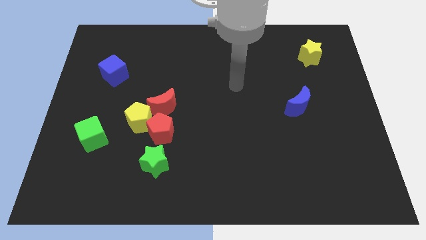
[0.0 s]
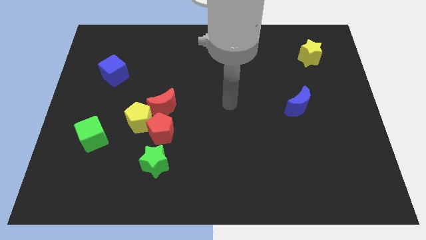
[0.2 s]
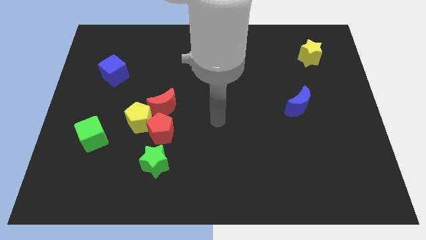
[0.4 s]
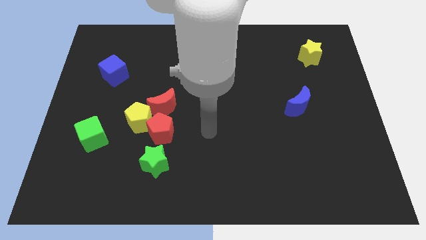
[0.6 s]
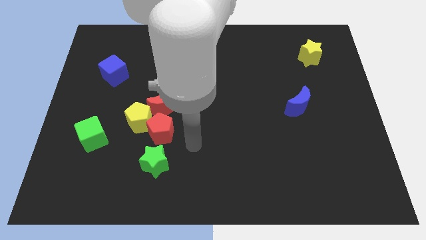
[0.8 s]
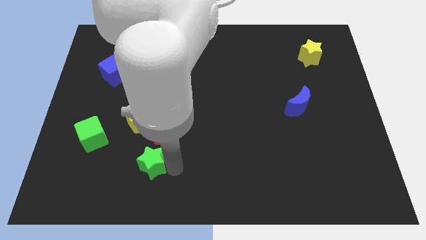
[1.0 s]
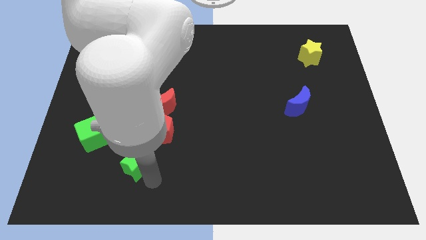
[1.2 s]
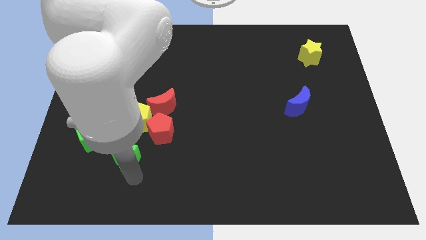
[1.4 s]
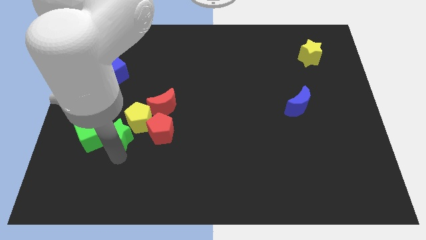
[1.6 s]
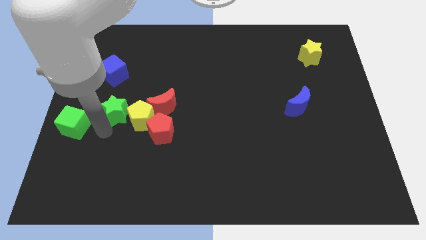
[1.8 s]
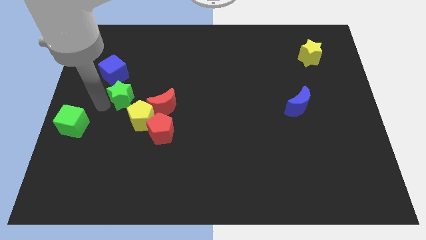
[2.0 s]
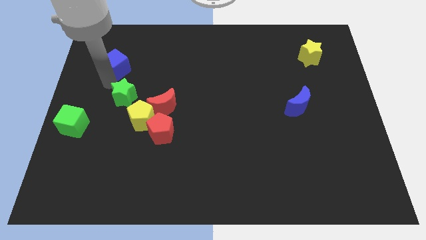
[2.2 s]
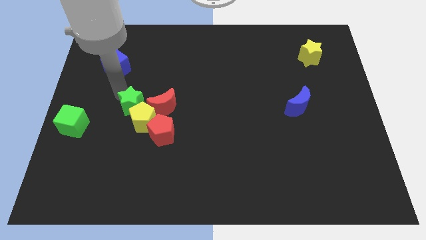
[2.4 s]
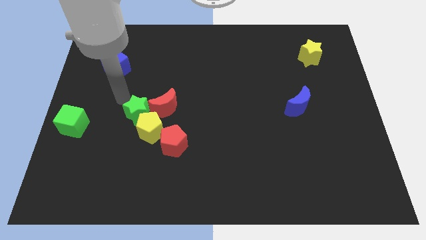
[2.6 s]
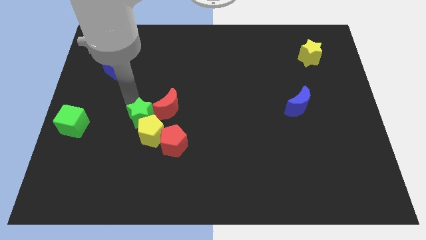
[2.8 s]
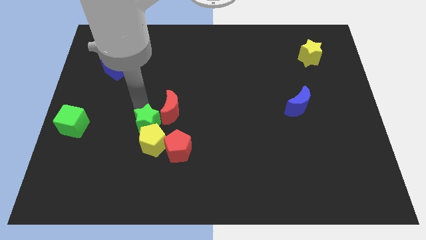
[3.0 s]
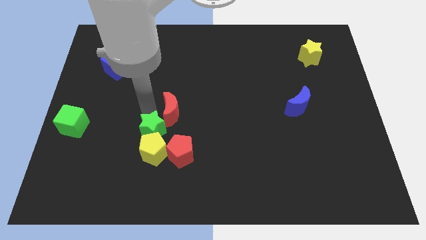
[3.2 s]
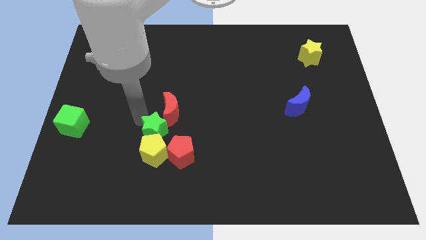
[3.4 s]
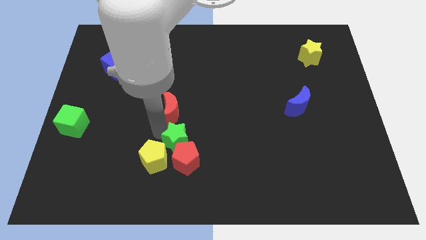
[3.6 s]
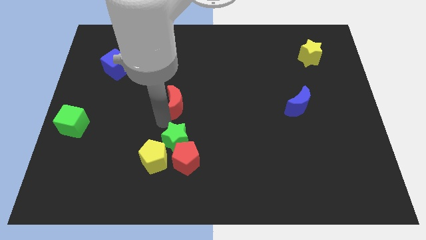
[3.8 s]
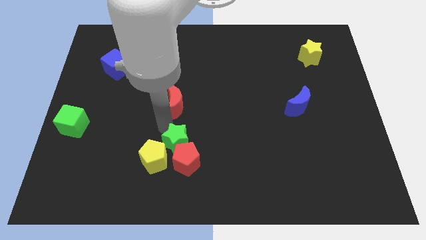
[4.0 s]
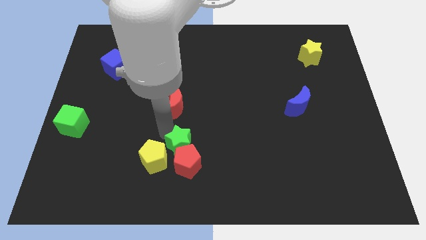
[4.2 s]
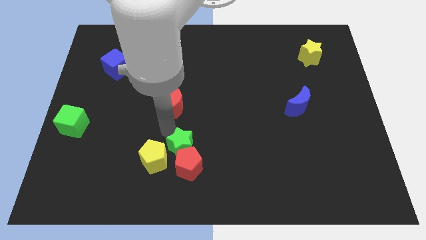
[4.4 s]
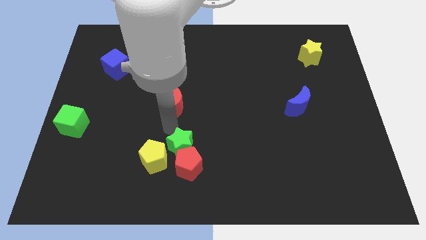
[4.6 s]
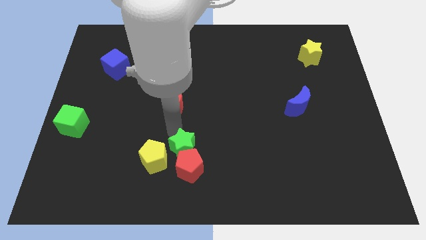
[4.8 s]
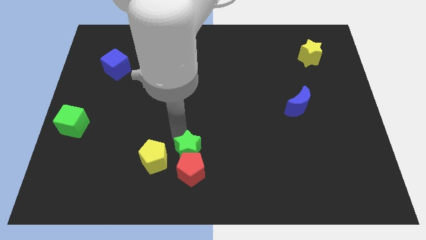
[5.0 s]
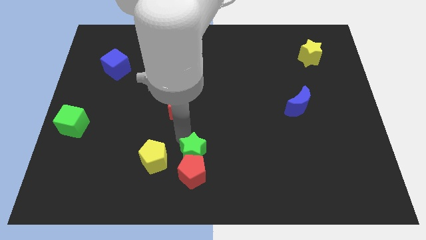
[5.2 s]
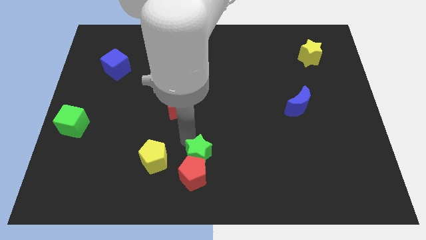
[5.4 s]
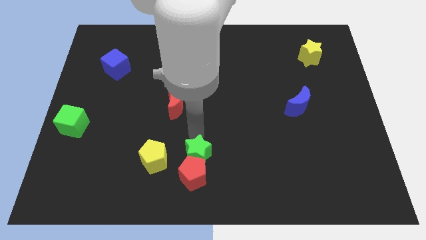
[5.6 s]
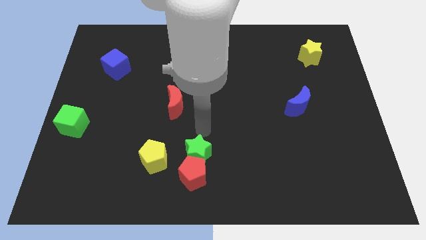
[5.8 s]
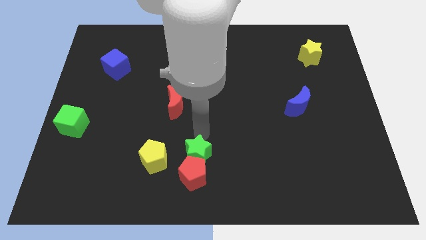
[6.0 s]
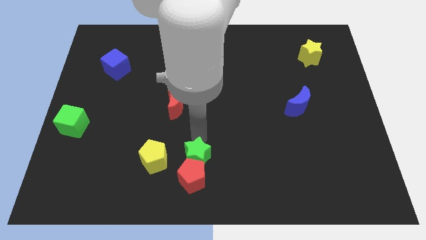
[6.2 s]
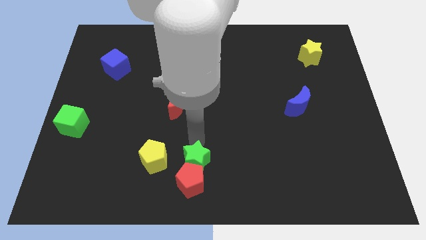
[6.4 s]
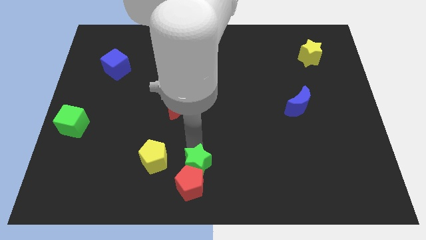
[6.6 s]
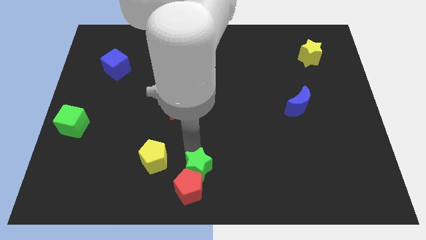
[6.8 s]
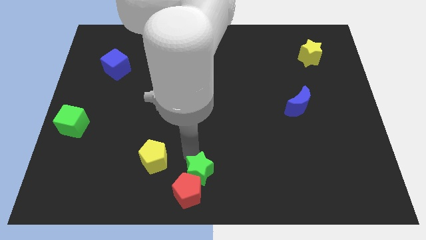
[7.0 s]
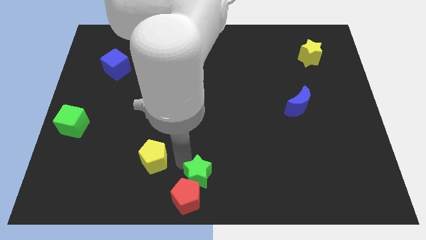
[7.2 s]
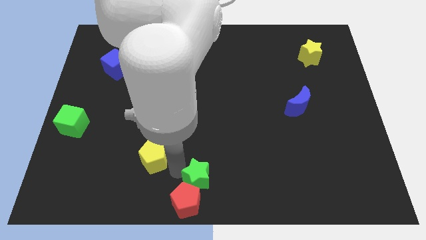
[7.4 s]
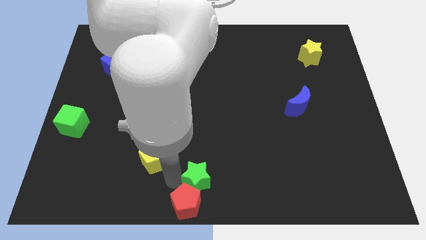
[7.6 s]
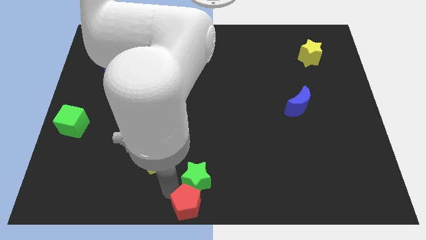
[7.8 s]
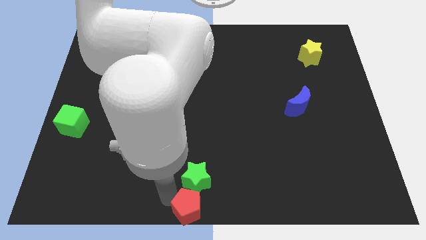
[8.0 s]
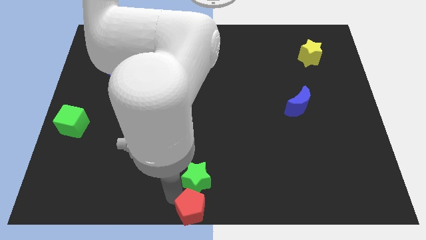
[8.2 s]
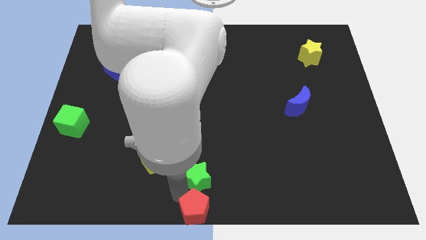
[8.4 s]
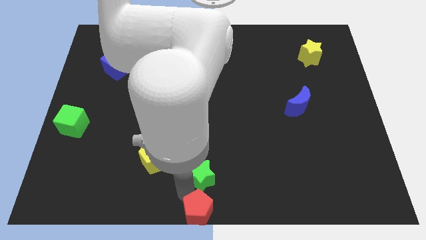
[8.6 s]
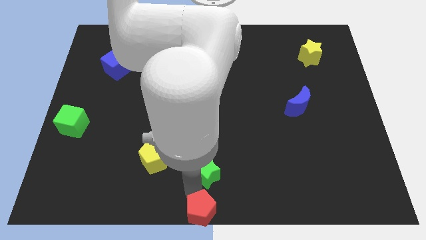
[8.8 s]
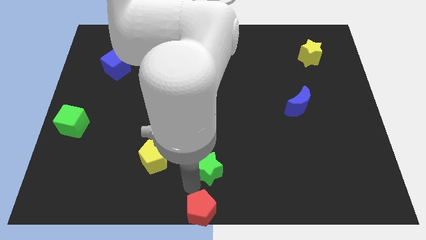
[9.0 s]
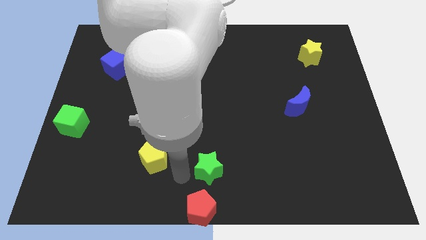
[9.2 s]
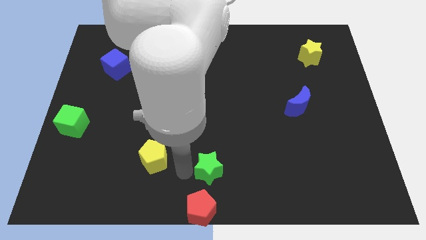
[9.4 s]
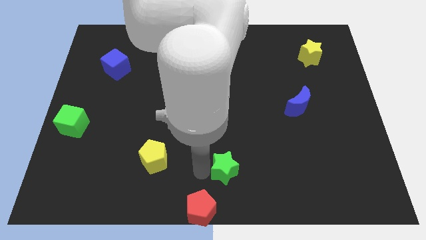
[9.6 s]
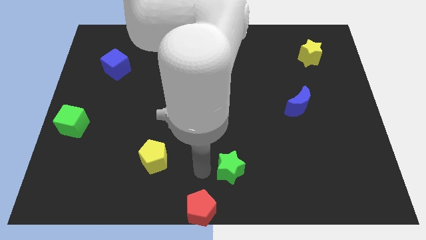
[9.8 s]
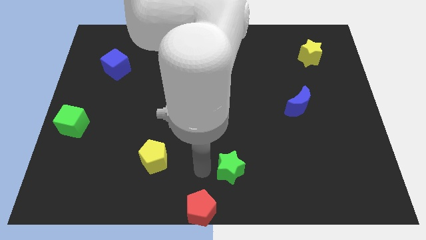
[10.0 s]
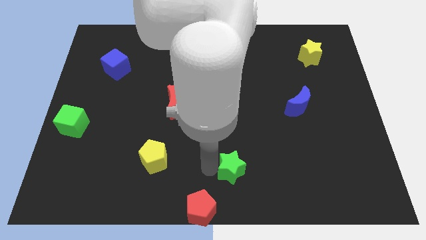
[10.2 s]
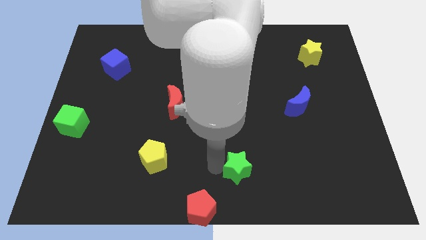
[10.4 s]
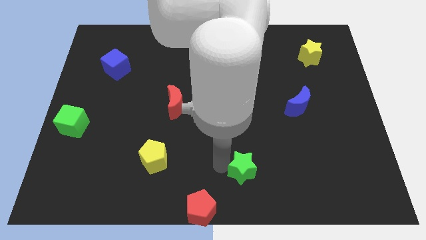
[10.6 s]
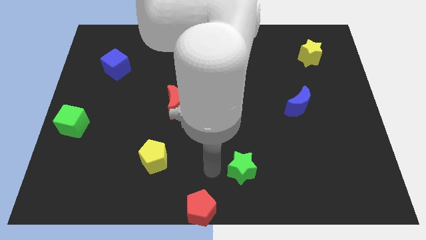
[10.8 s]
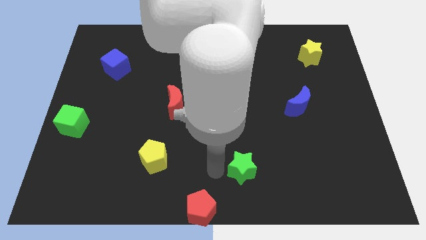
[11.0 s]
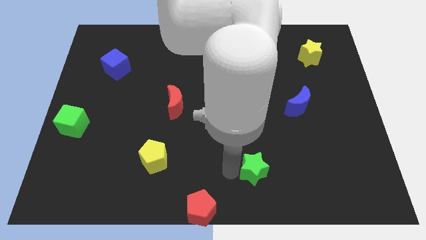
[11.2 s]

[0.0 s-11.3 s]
push the green star to the right

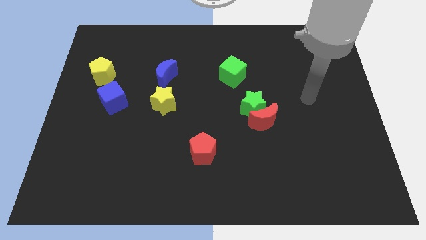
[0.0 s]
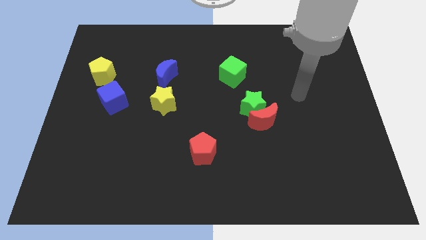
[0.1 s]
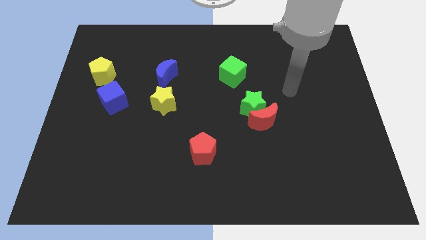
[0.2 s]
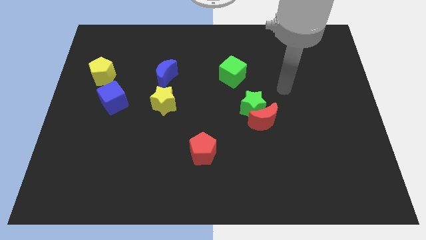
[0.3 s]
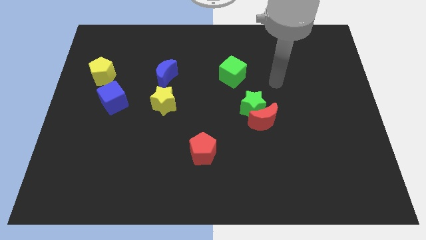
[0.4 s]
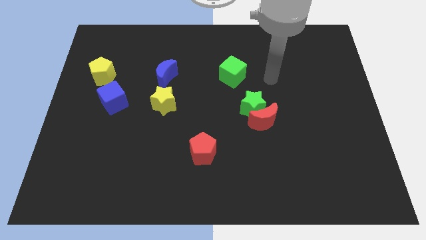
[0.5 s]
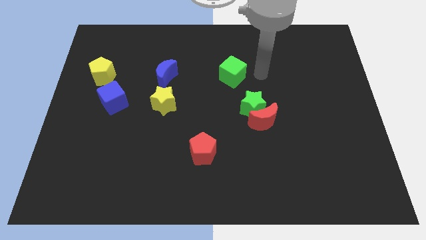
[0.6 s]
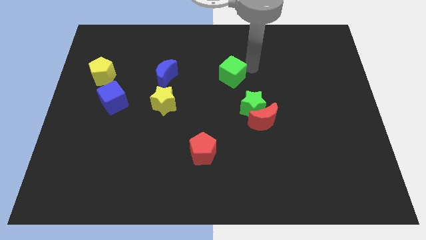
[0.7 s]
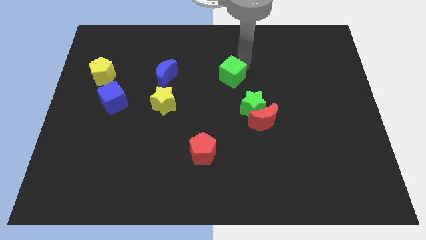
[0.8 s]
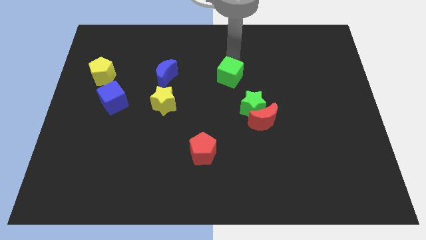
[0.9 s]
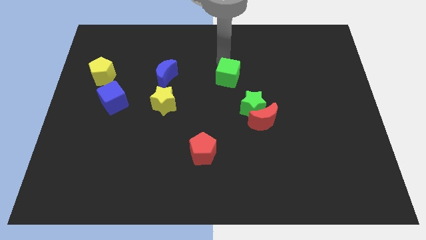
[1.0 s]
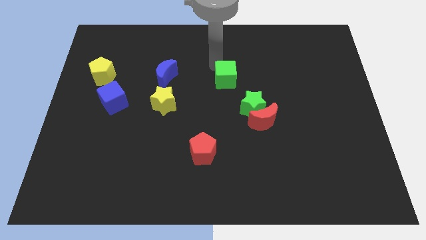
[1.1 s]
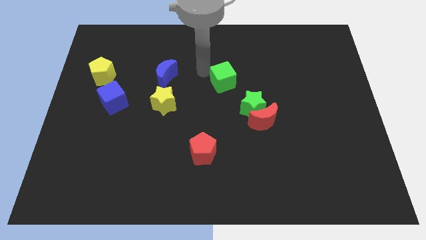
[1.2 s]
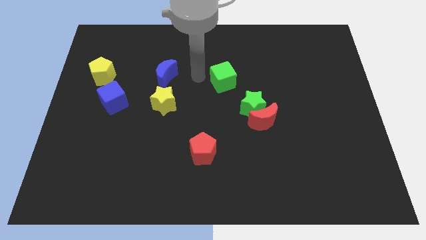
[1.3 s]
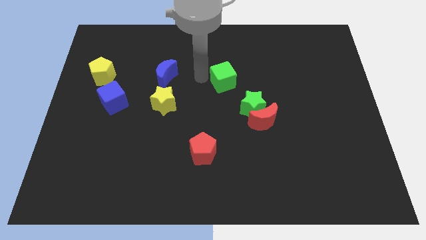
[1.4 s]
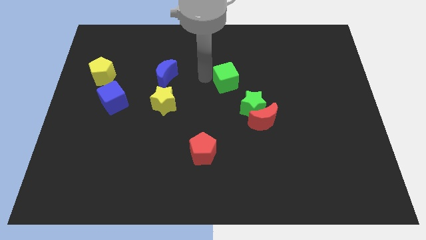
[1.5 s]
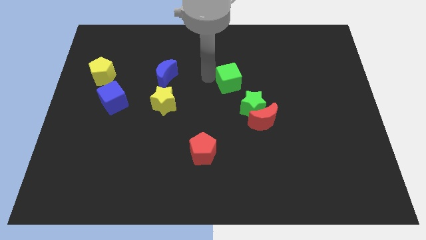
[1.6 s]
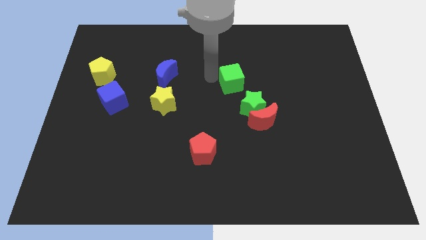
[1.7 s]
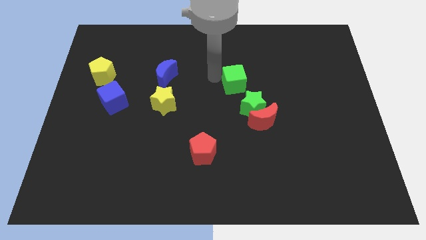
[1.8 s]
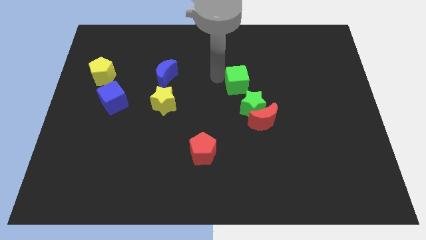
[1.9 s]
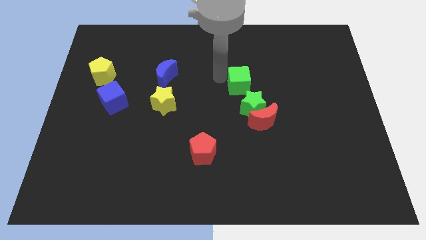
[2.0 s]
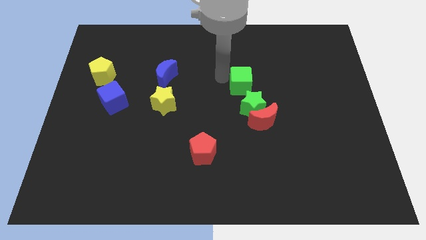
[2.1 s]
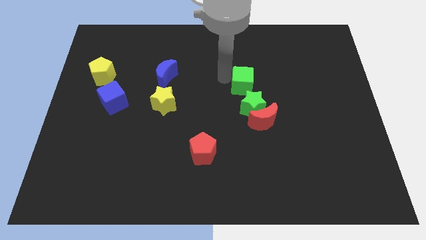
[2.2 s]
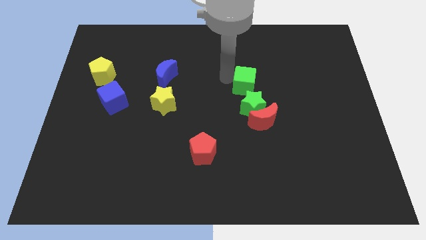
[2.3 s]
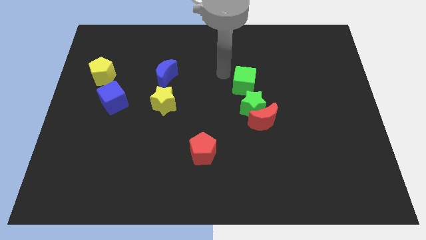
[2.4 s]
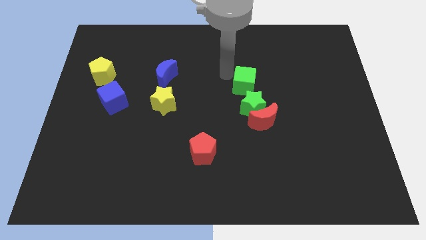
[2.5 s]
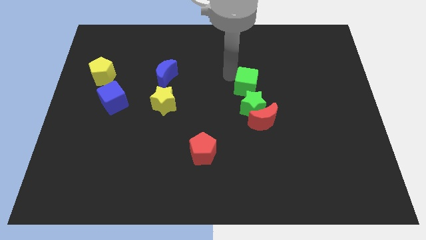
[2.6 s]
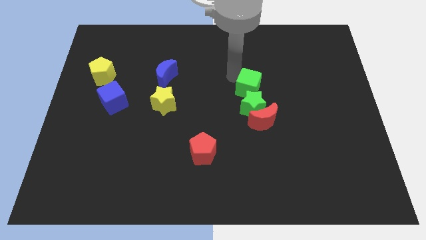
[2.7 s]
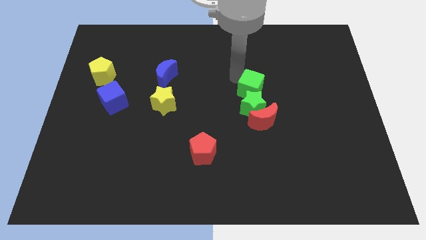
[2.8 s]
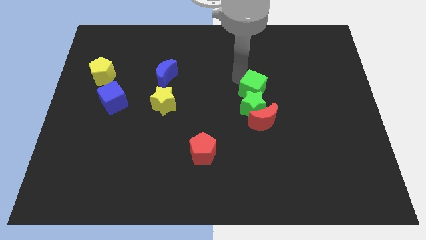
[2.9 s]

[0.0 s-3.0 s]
move the green cube a little bit diagonally down and right
